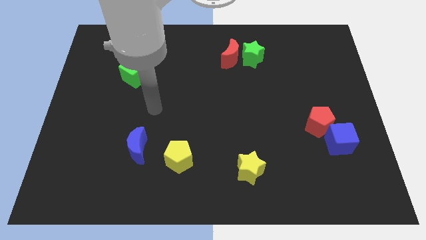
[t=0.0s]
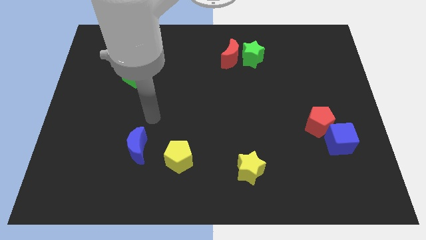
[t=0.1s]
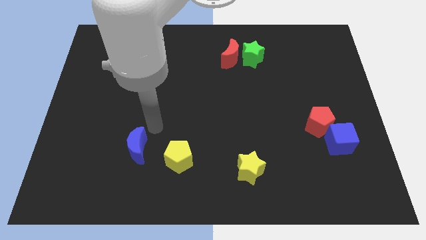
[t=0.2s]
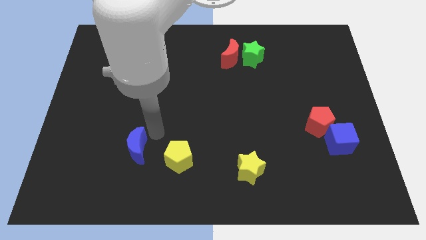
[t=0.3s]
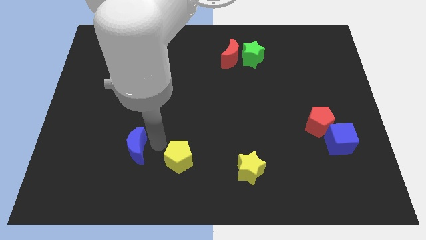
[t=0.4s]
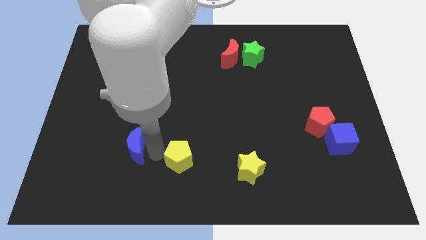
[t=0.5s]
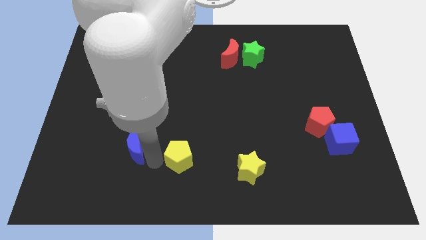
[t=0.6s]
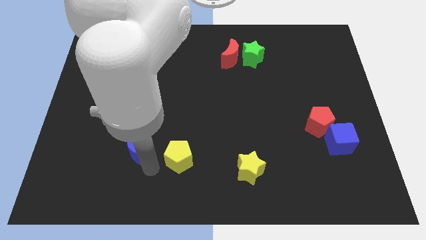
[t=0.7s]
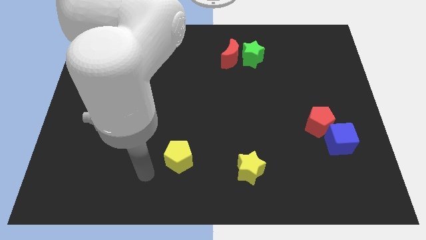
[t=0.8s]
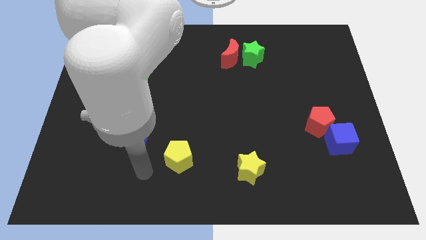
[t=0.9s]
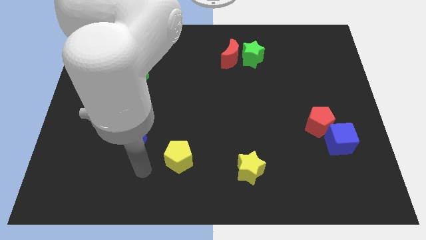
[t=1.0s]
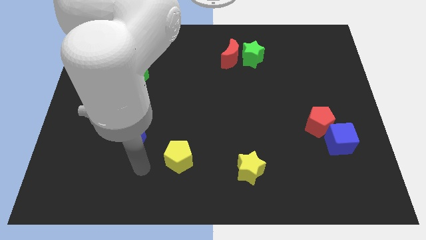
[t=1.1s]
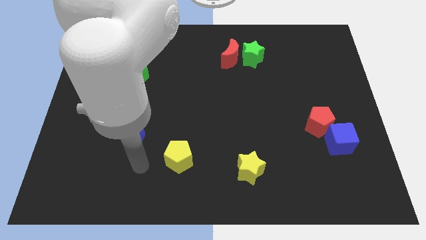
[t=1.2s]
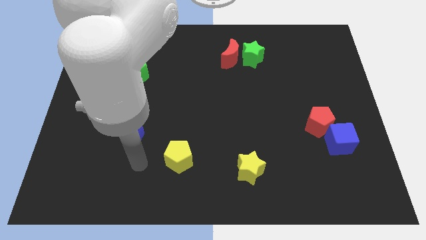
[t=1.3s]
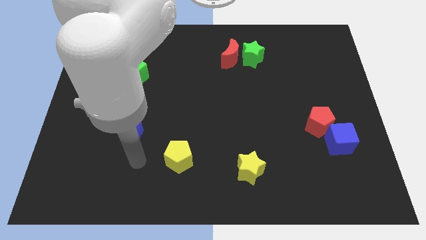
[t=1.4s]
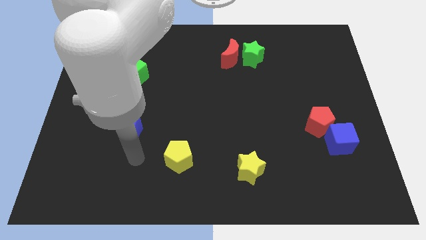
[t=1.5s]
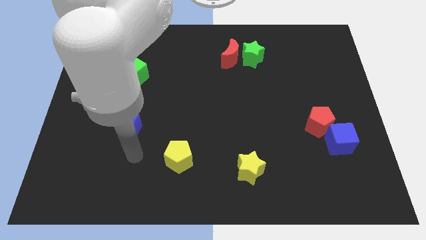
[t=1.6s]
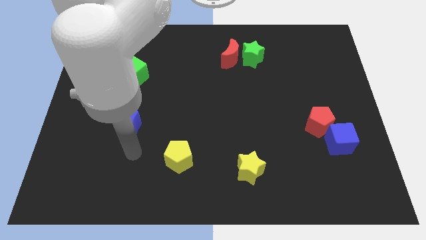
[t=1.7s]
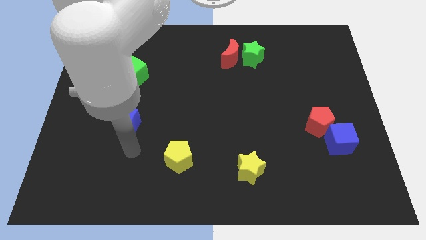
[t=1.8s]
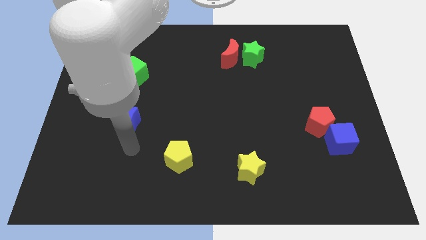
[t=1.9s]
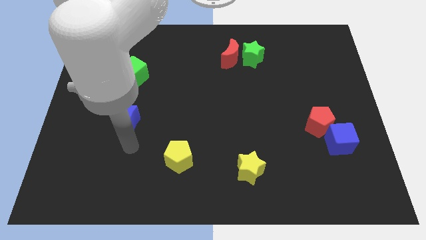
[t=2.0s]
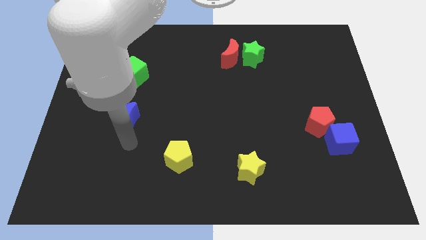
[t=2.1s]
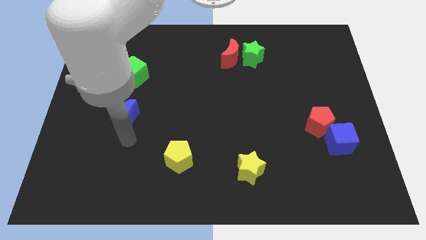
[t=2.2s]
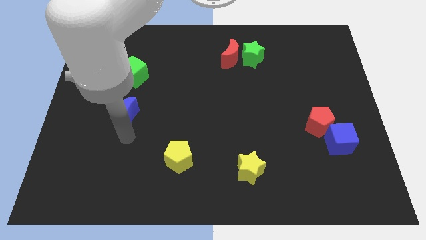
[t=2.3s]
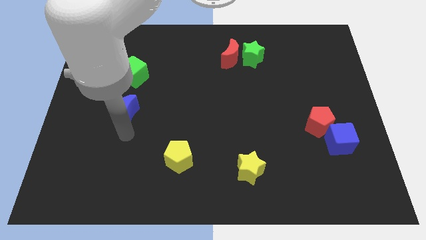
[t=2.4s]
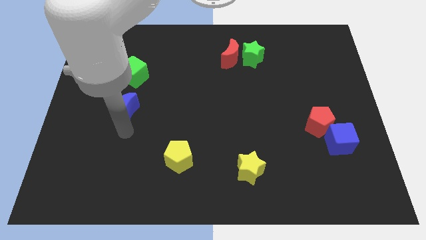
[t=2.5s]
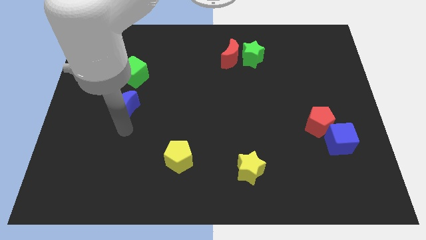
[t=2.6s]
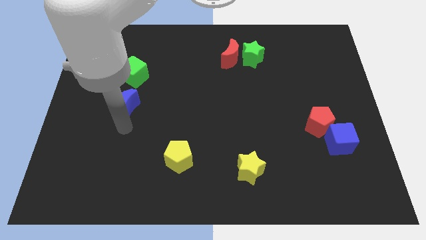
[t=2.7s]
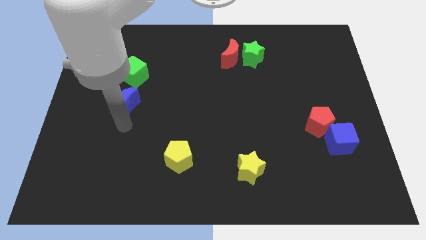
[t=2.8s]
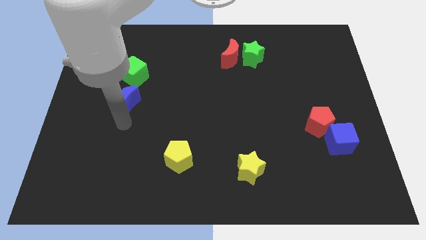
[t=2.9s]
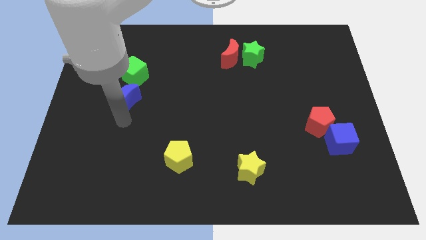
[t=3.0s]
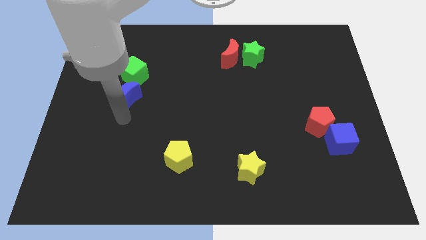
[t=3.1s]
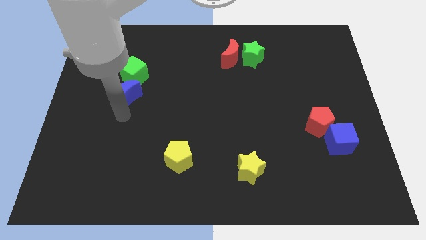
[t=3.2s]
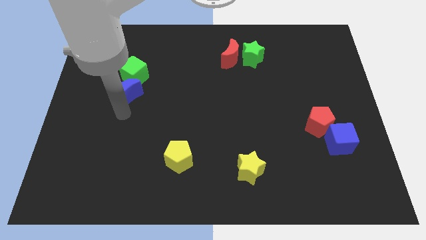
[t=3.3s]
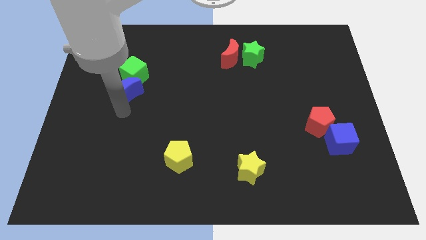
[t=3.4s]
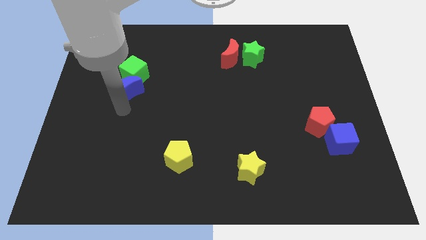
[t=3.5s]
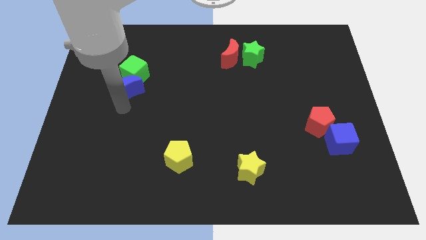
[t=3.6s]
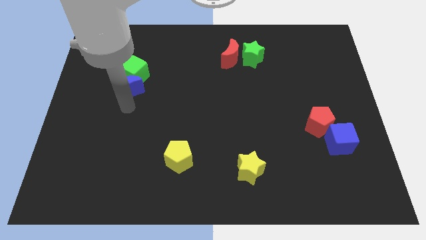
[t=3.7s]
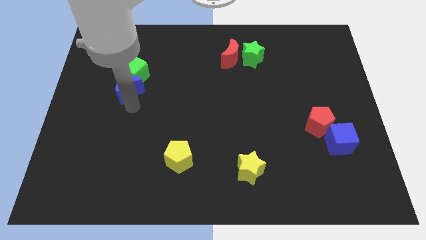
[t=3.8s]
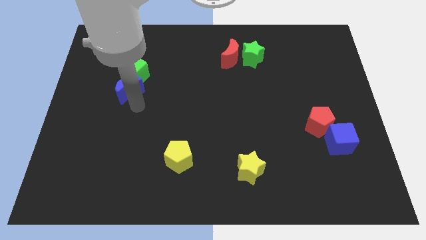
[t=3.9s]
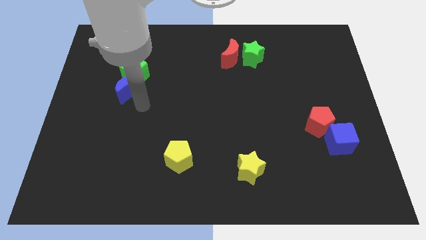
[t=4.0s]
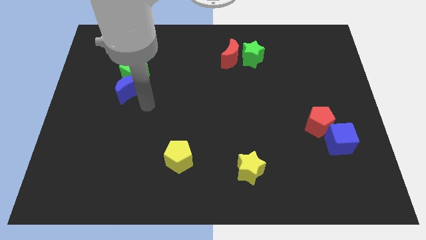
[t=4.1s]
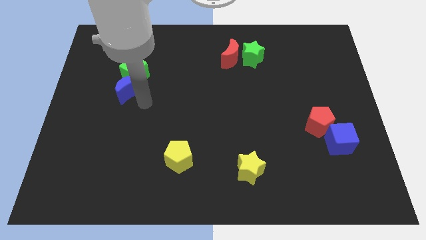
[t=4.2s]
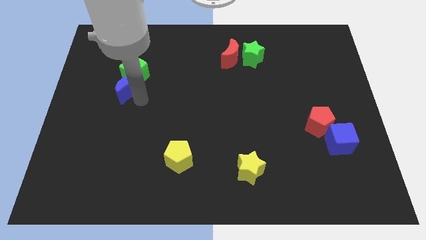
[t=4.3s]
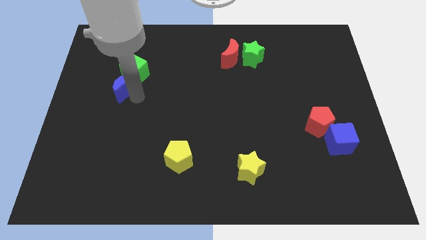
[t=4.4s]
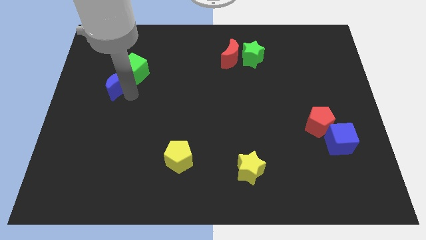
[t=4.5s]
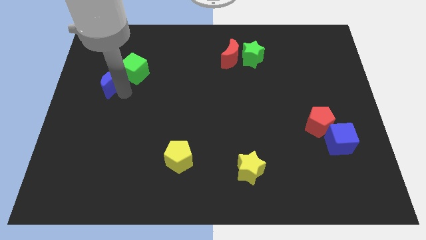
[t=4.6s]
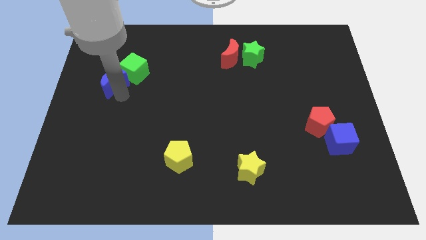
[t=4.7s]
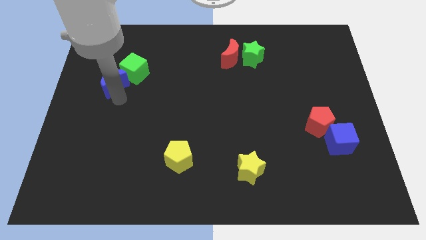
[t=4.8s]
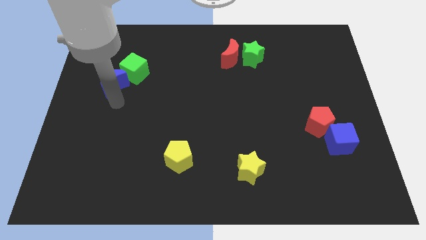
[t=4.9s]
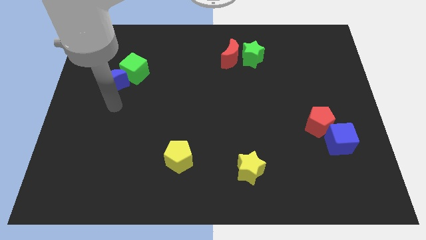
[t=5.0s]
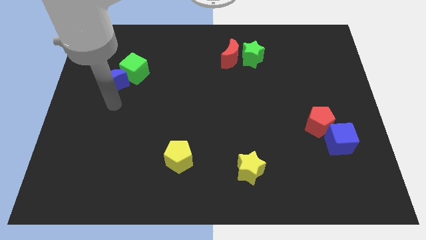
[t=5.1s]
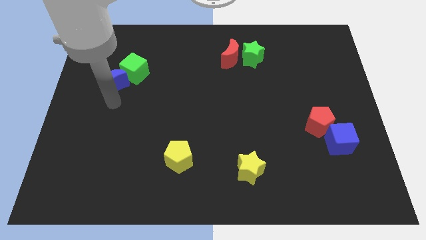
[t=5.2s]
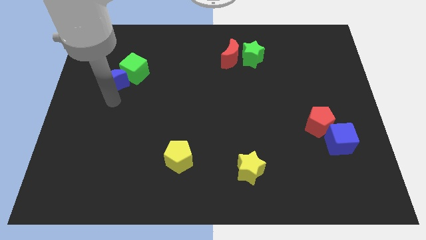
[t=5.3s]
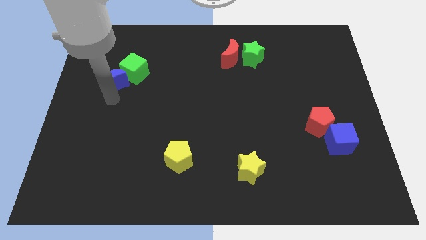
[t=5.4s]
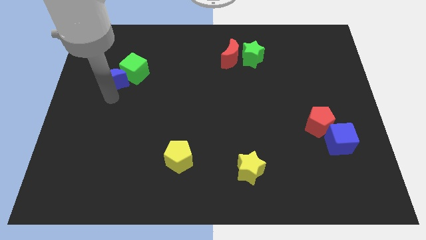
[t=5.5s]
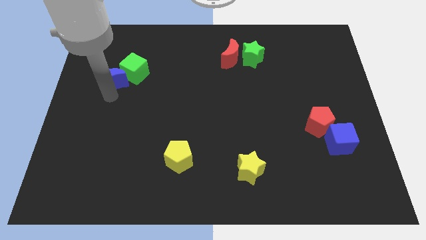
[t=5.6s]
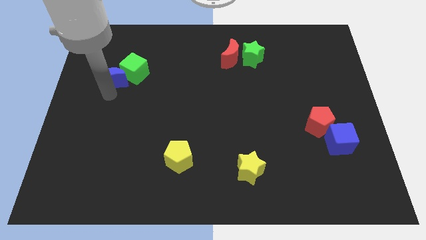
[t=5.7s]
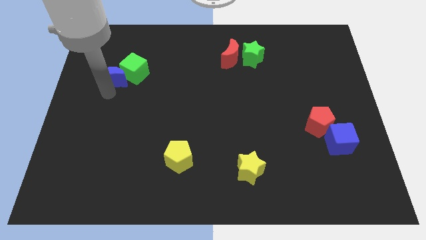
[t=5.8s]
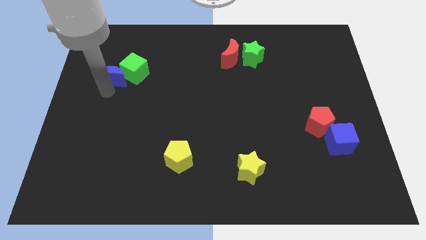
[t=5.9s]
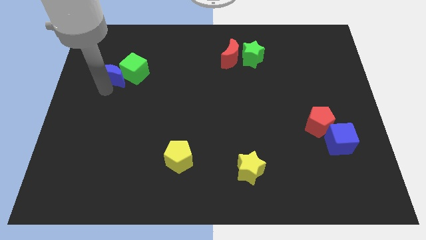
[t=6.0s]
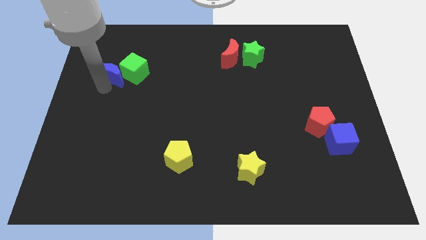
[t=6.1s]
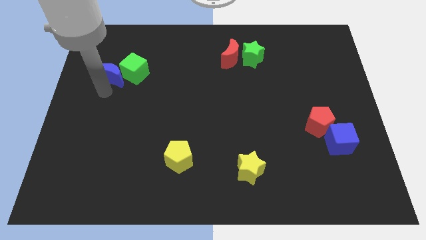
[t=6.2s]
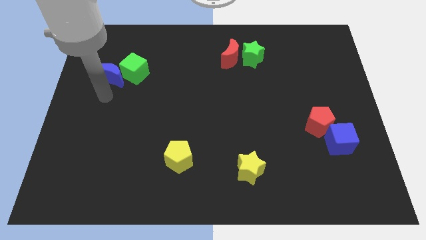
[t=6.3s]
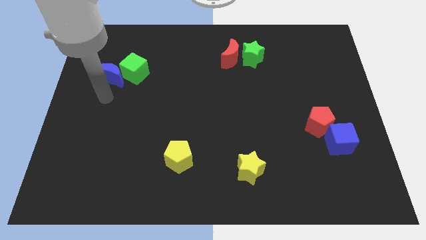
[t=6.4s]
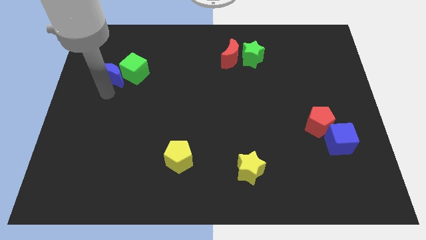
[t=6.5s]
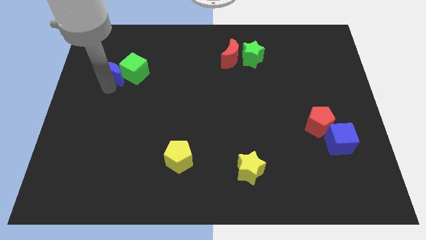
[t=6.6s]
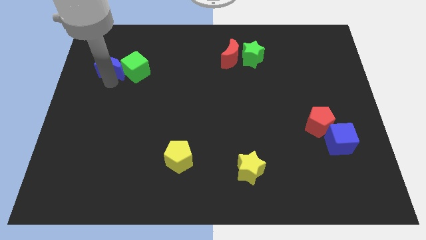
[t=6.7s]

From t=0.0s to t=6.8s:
move the blue moon to the top left of the green cube

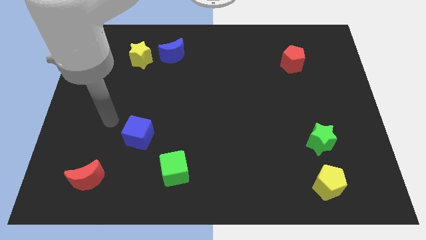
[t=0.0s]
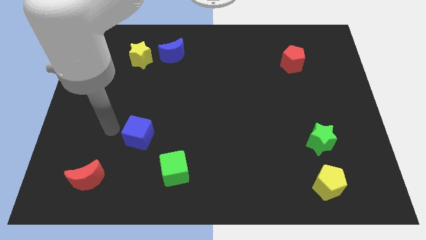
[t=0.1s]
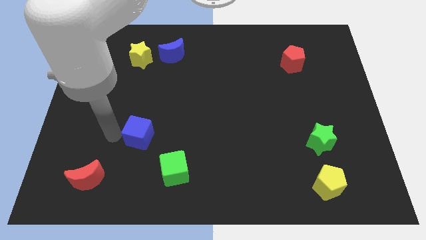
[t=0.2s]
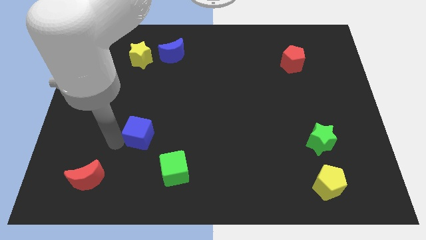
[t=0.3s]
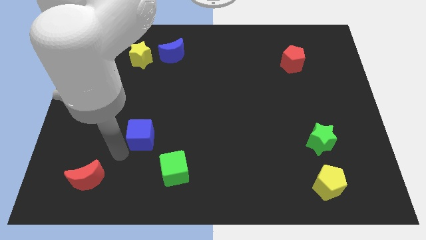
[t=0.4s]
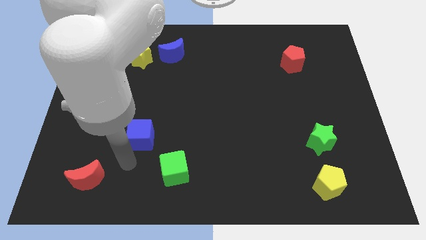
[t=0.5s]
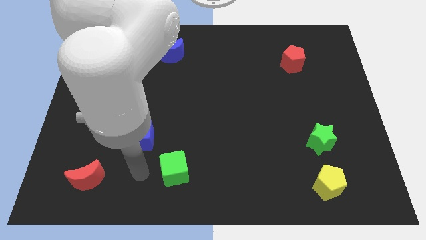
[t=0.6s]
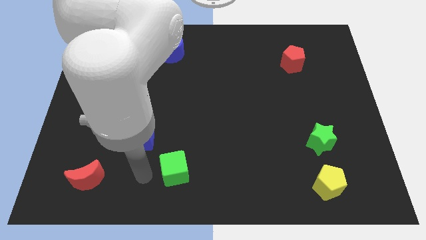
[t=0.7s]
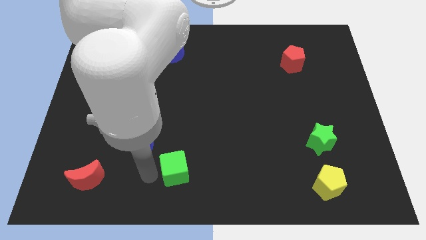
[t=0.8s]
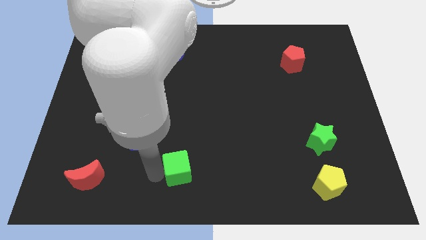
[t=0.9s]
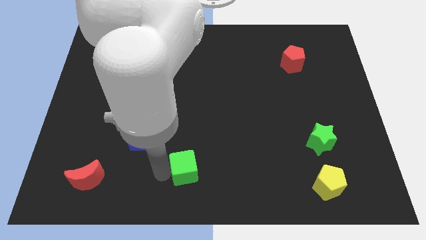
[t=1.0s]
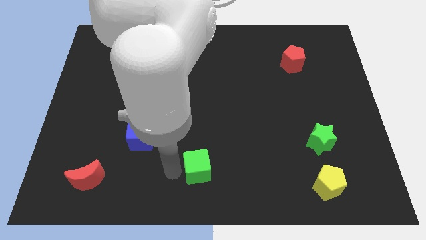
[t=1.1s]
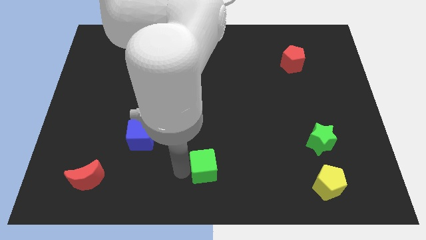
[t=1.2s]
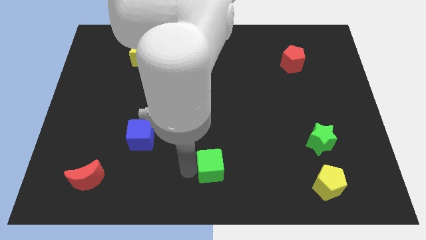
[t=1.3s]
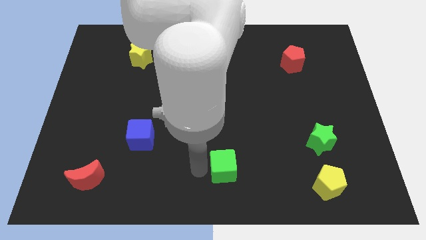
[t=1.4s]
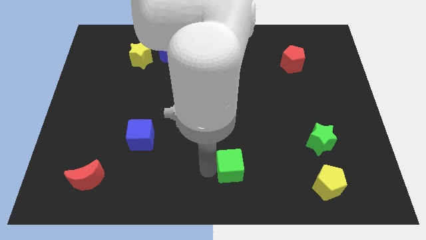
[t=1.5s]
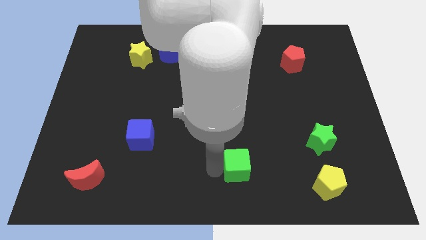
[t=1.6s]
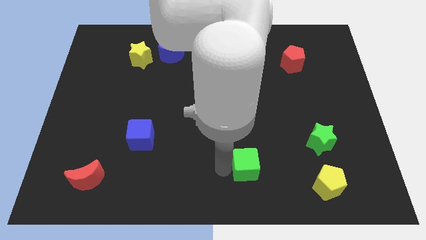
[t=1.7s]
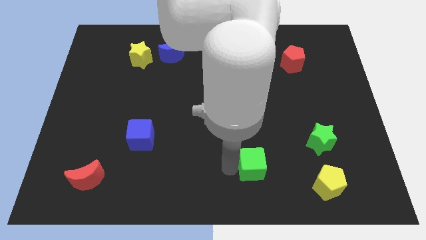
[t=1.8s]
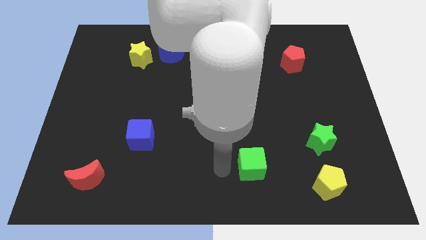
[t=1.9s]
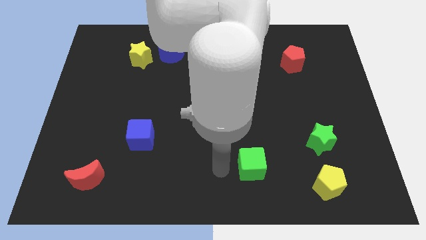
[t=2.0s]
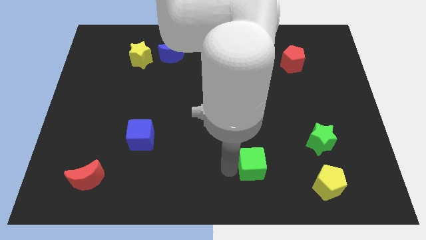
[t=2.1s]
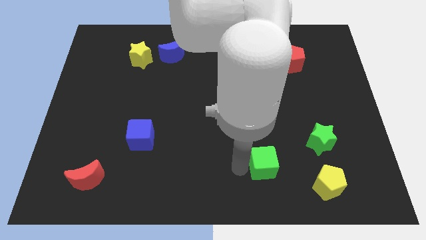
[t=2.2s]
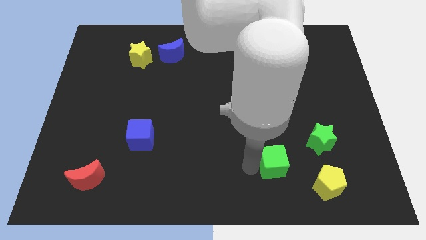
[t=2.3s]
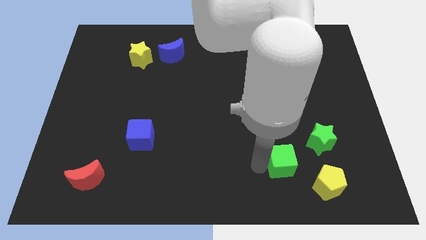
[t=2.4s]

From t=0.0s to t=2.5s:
push the green cube to the top left side of the yellow pentagon
